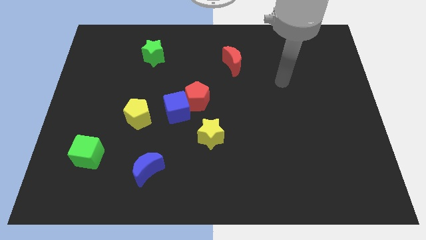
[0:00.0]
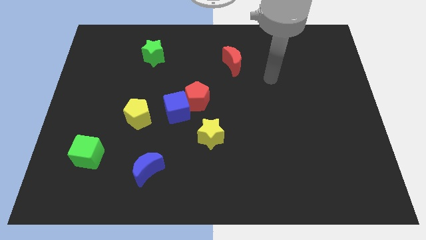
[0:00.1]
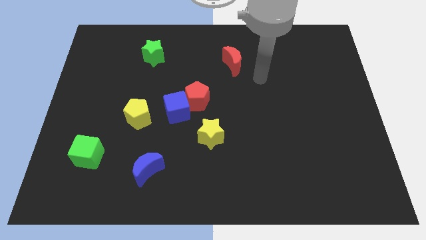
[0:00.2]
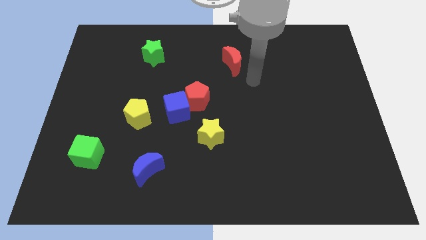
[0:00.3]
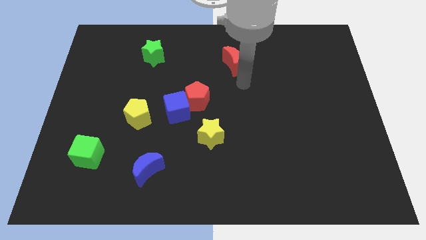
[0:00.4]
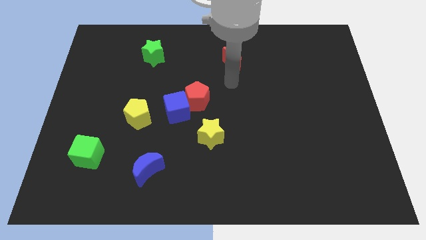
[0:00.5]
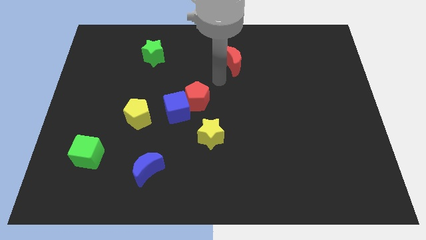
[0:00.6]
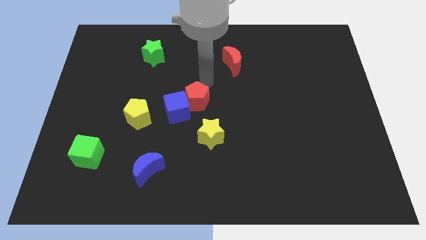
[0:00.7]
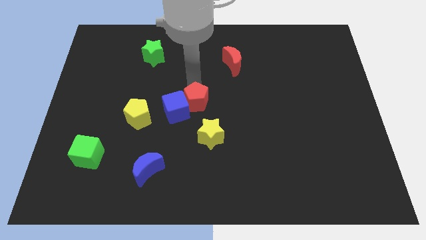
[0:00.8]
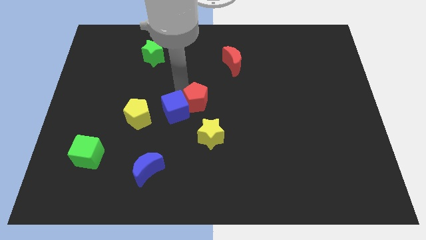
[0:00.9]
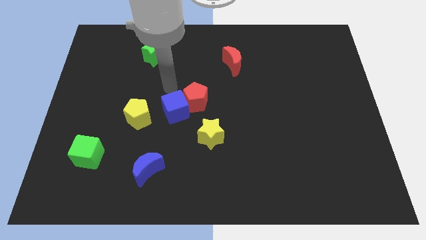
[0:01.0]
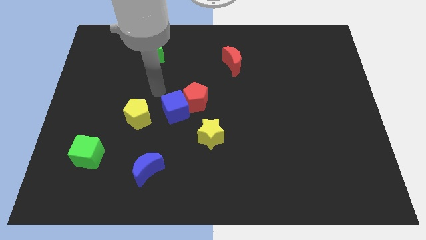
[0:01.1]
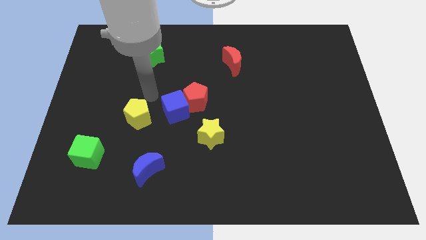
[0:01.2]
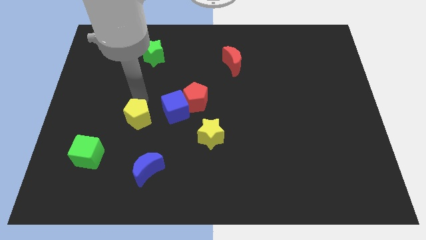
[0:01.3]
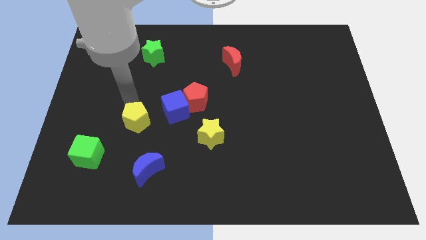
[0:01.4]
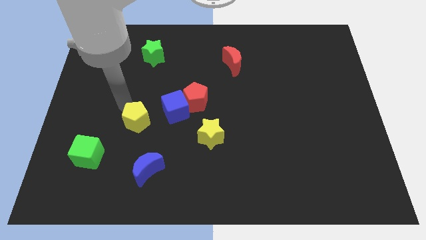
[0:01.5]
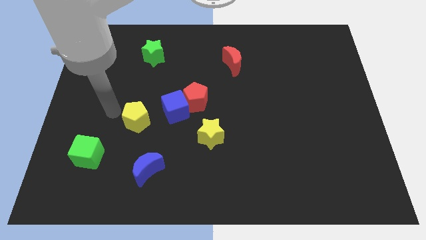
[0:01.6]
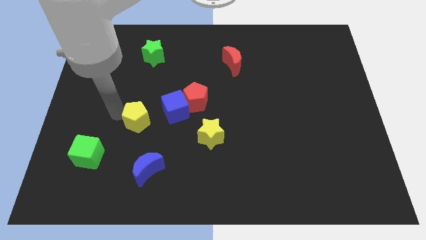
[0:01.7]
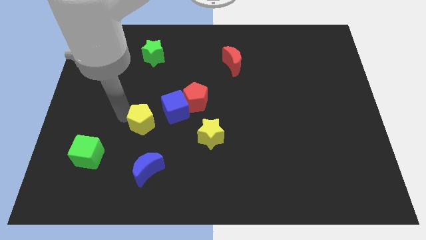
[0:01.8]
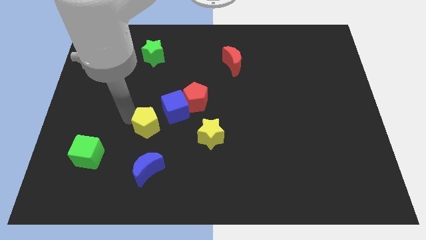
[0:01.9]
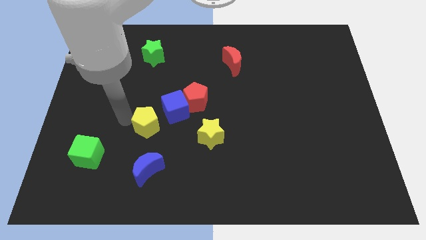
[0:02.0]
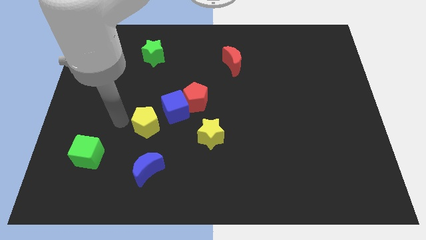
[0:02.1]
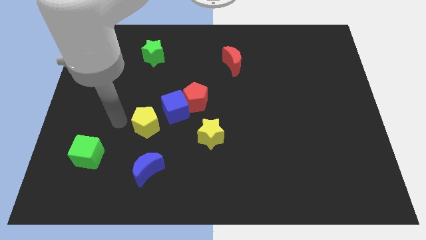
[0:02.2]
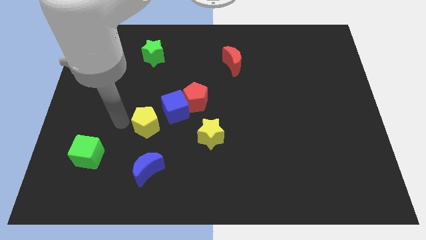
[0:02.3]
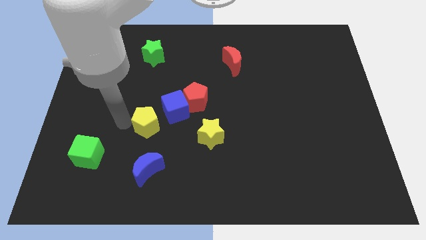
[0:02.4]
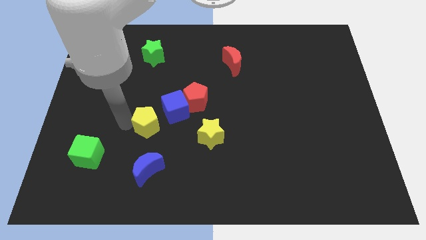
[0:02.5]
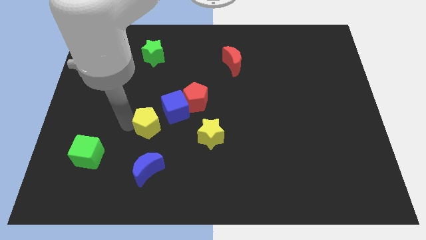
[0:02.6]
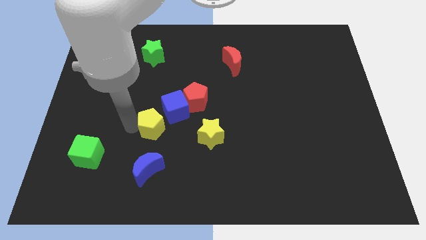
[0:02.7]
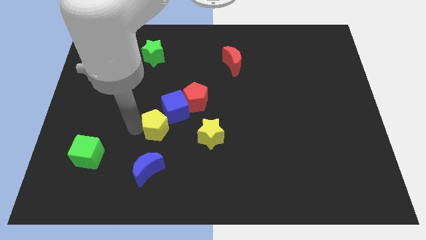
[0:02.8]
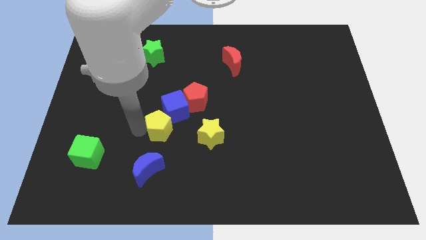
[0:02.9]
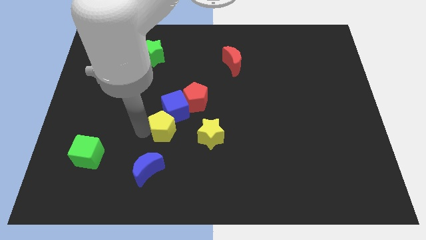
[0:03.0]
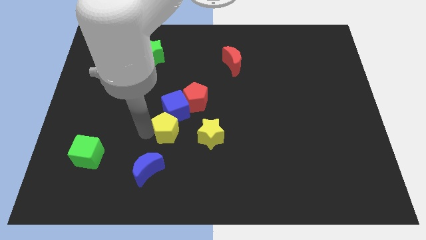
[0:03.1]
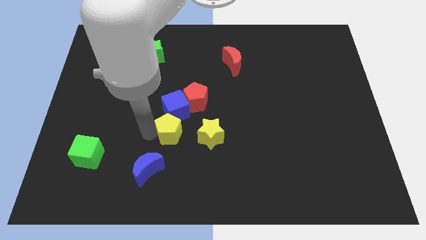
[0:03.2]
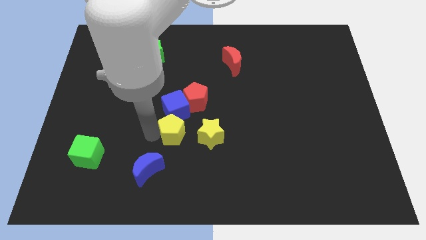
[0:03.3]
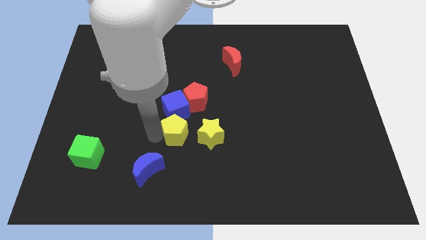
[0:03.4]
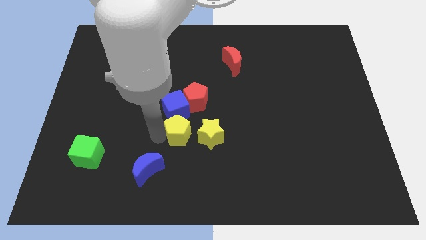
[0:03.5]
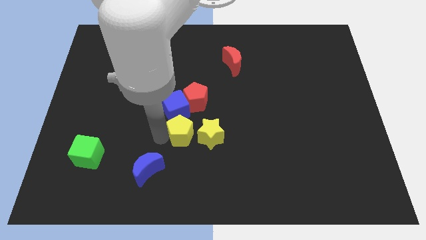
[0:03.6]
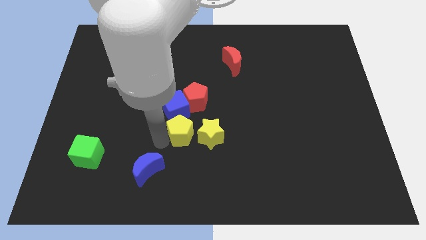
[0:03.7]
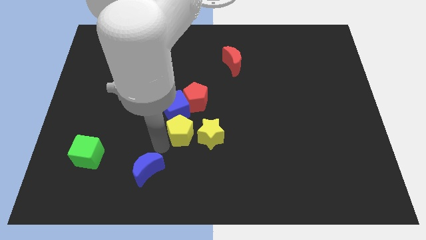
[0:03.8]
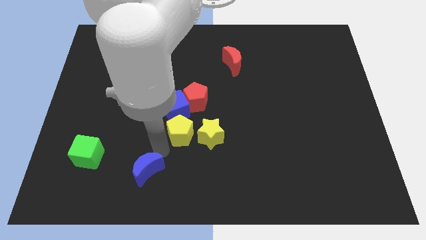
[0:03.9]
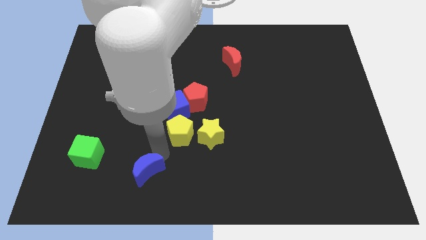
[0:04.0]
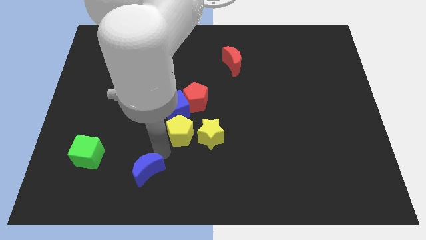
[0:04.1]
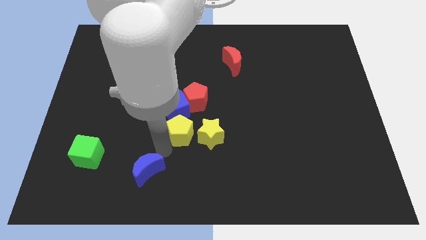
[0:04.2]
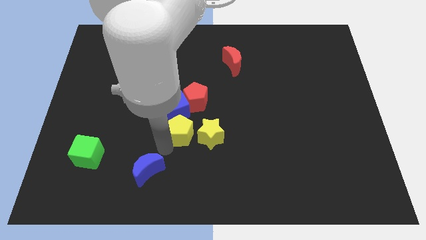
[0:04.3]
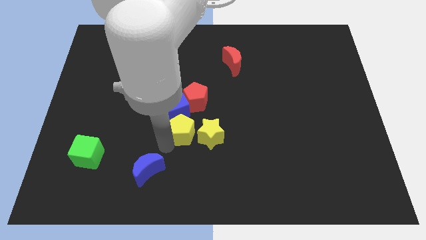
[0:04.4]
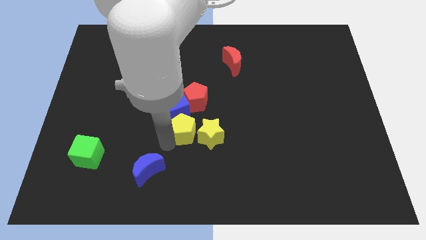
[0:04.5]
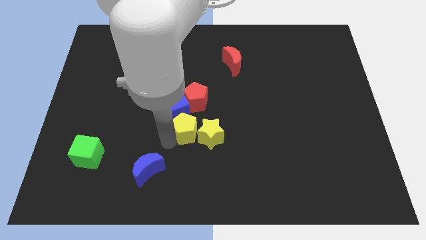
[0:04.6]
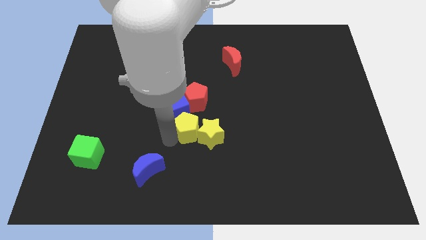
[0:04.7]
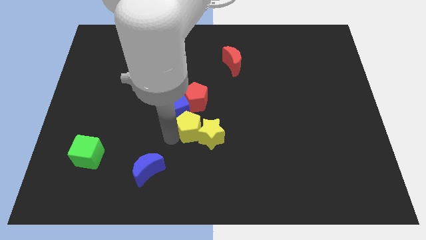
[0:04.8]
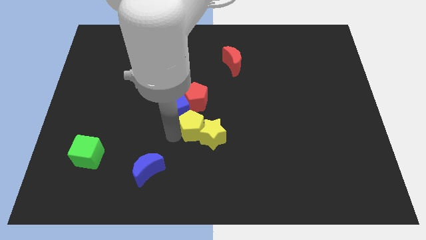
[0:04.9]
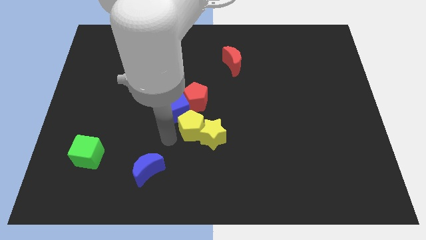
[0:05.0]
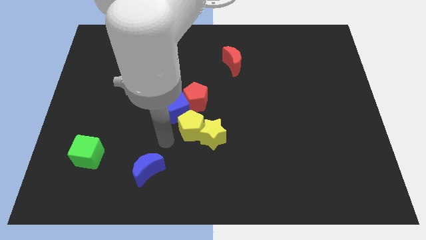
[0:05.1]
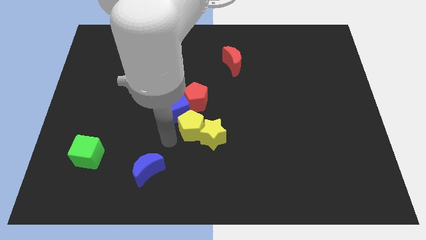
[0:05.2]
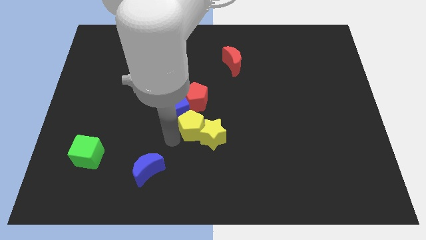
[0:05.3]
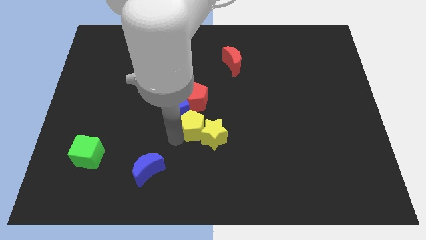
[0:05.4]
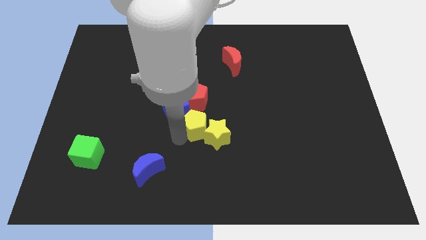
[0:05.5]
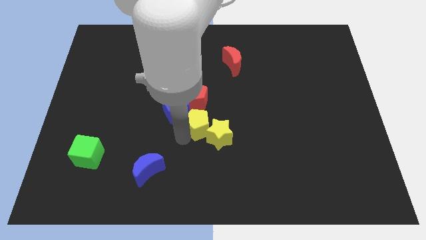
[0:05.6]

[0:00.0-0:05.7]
push the yellow pentagon diagonally down and to the right of the red pentagon

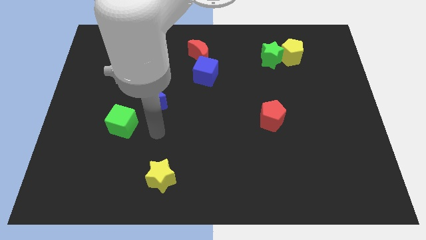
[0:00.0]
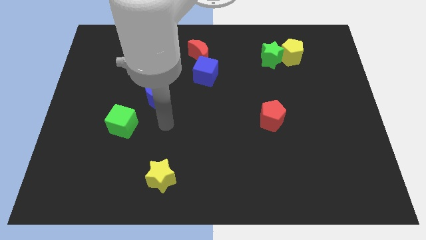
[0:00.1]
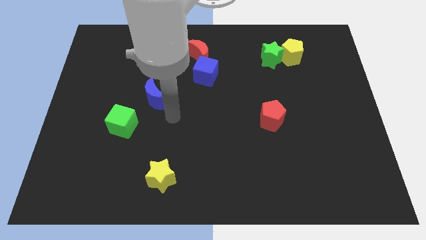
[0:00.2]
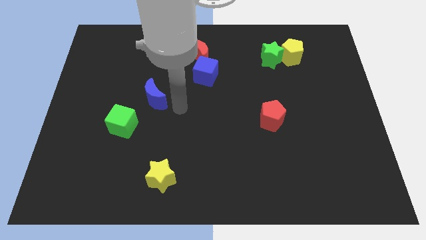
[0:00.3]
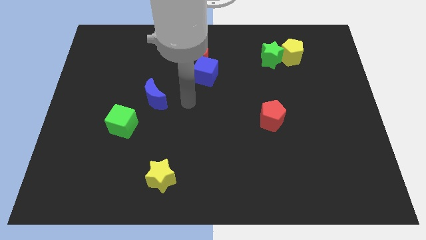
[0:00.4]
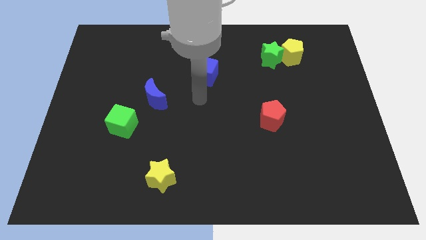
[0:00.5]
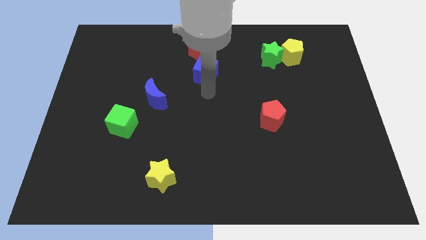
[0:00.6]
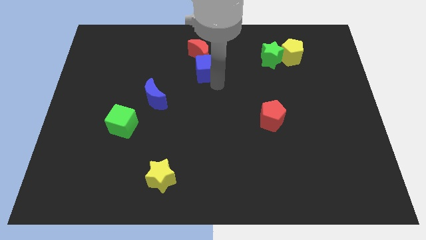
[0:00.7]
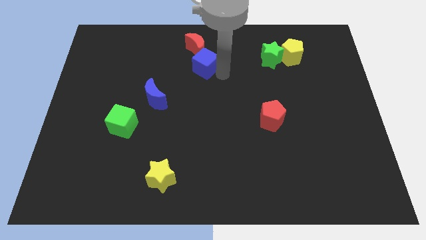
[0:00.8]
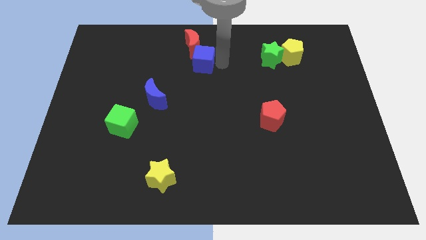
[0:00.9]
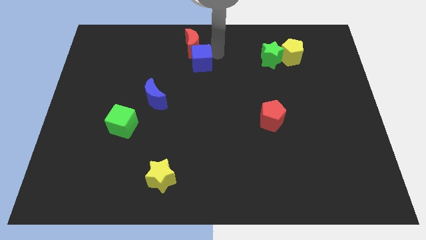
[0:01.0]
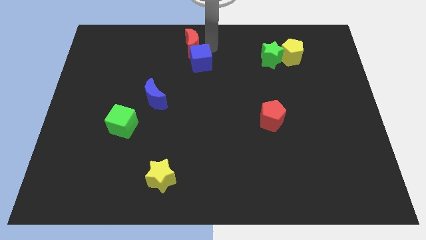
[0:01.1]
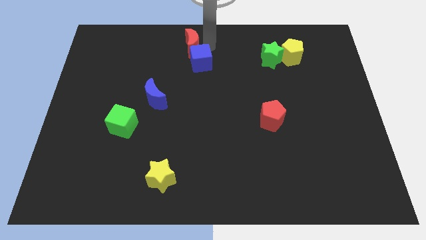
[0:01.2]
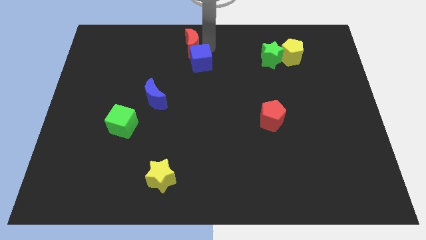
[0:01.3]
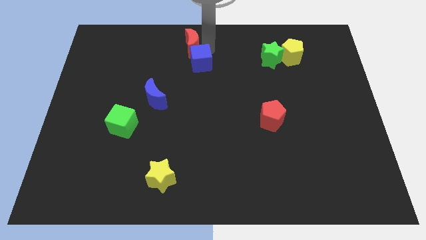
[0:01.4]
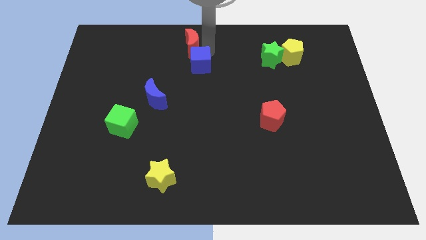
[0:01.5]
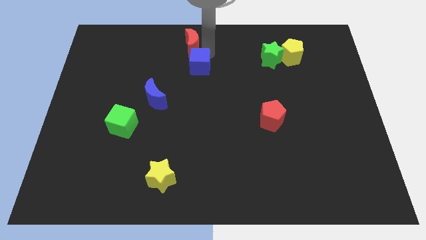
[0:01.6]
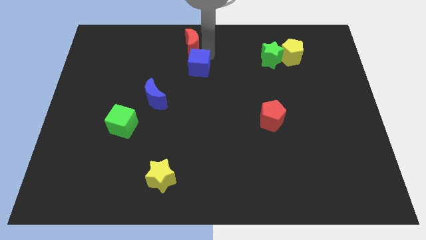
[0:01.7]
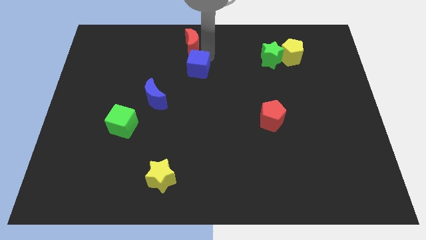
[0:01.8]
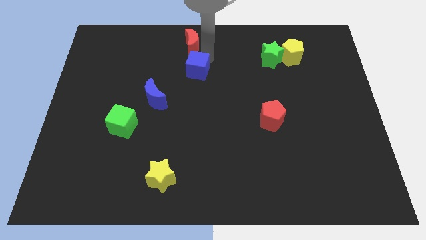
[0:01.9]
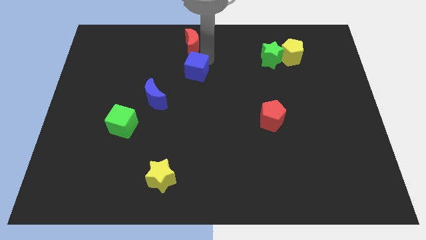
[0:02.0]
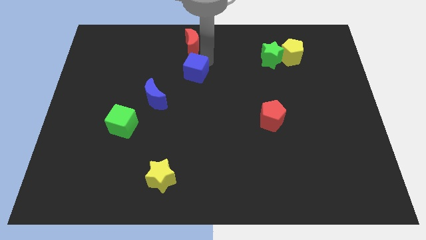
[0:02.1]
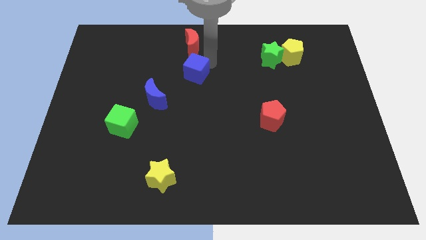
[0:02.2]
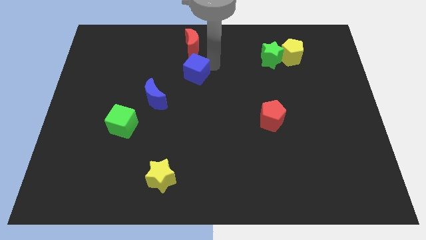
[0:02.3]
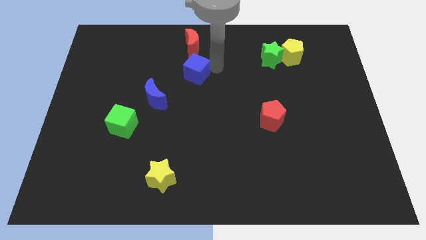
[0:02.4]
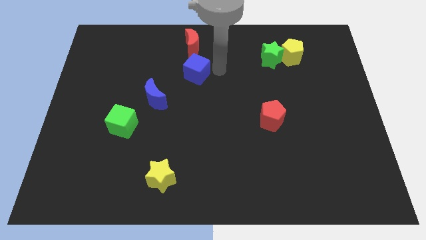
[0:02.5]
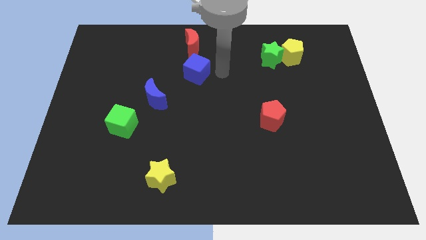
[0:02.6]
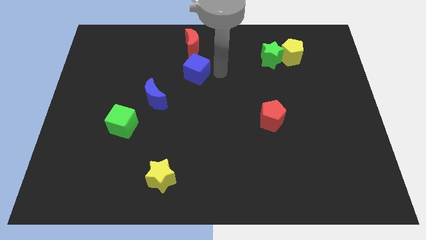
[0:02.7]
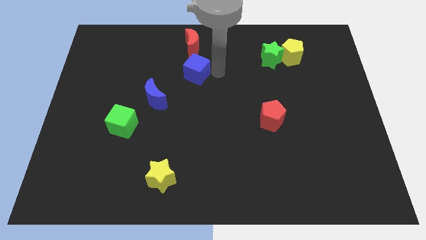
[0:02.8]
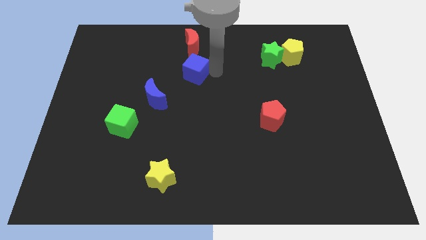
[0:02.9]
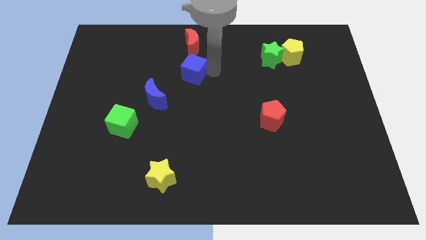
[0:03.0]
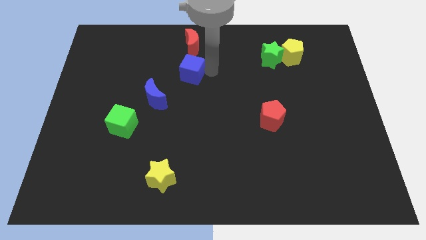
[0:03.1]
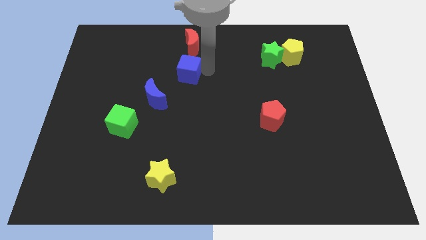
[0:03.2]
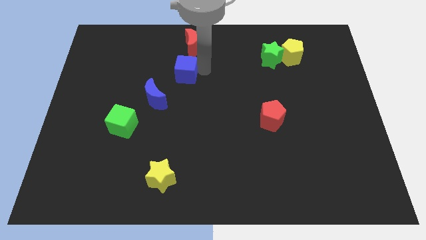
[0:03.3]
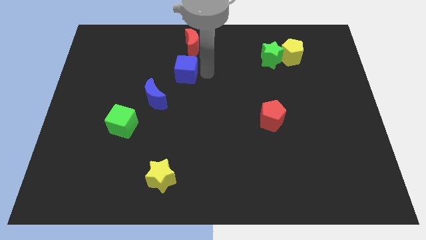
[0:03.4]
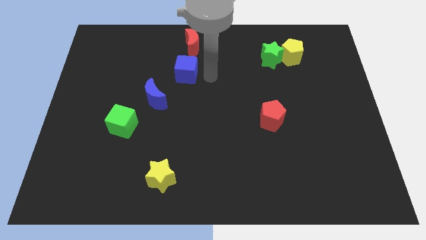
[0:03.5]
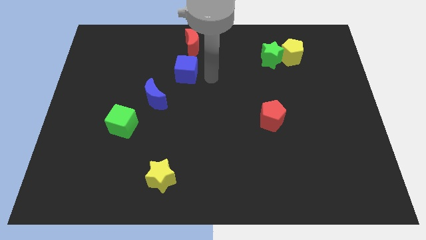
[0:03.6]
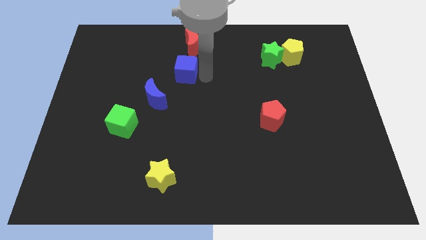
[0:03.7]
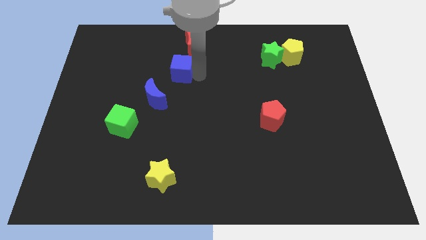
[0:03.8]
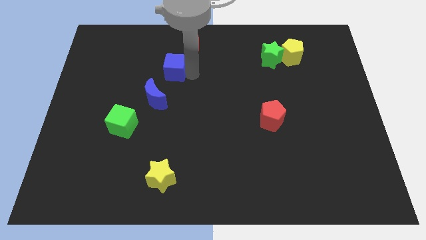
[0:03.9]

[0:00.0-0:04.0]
slide the blue cube above the blue moon
